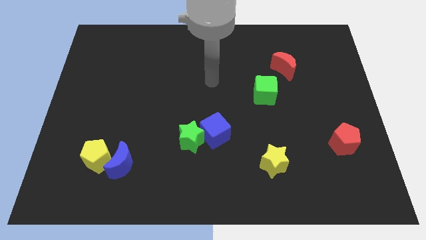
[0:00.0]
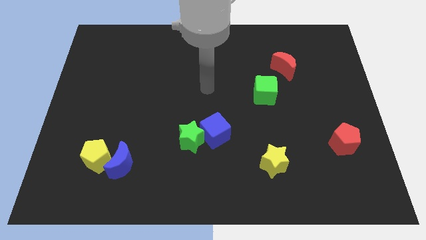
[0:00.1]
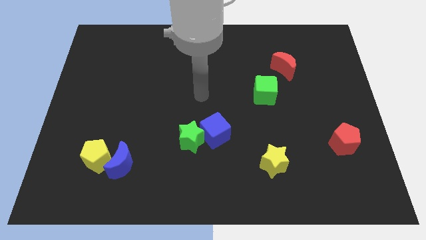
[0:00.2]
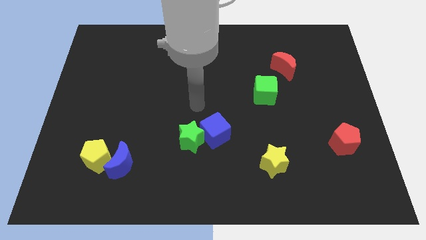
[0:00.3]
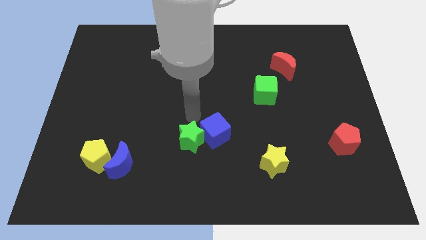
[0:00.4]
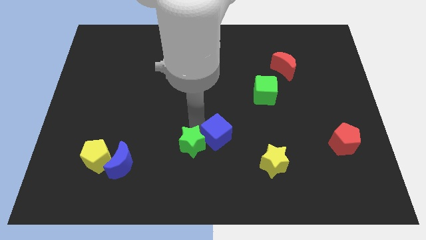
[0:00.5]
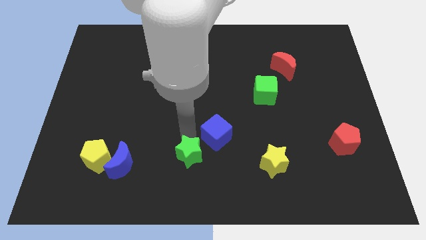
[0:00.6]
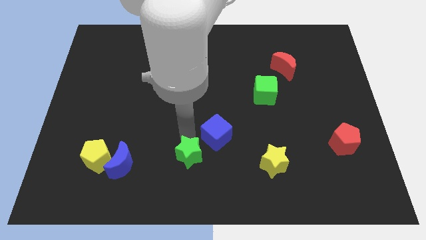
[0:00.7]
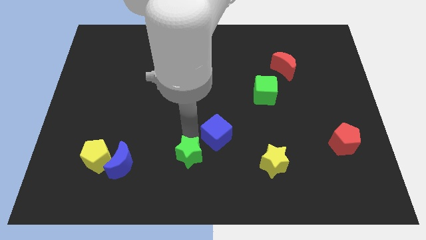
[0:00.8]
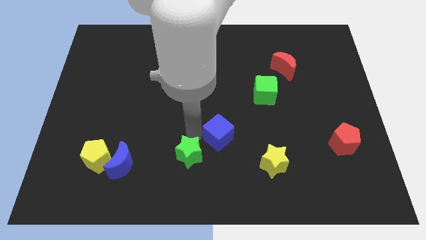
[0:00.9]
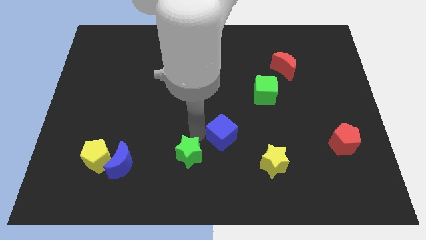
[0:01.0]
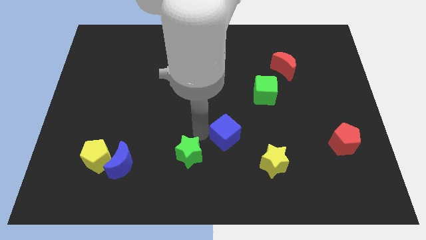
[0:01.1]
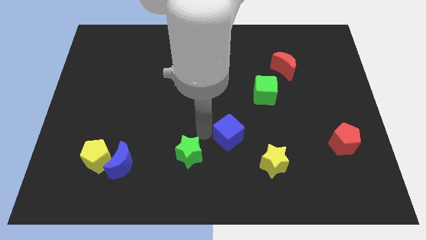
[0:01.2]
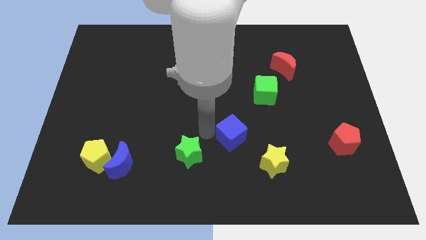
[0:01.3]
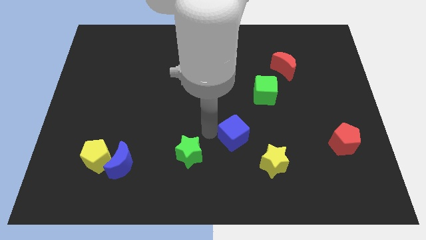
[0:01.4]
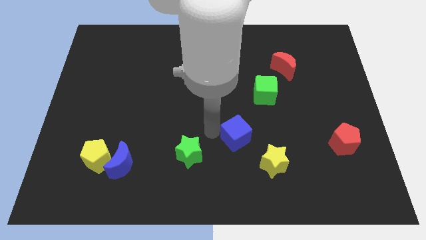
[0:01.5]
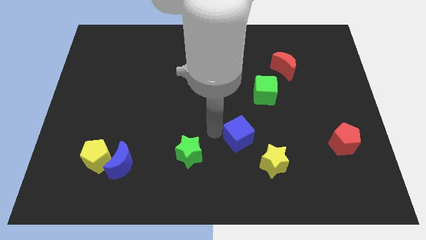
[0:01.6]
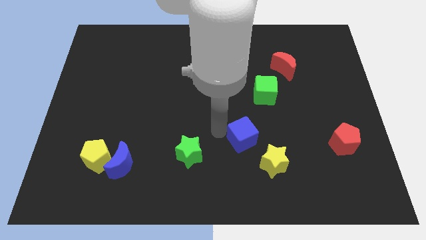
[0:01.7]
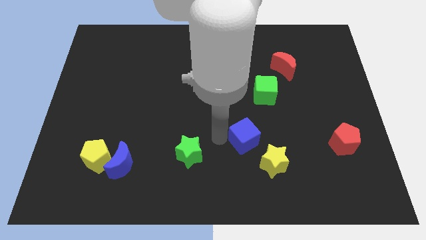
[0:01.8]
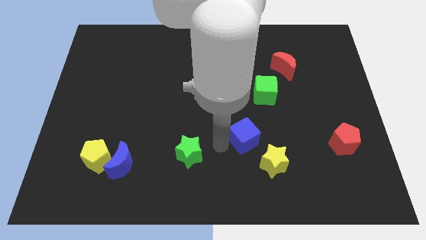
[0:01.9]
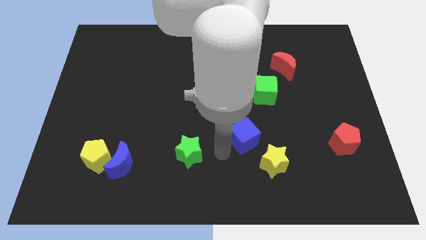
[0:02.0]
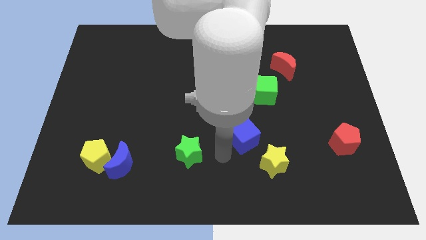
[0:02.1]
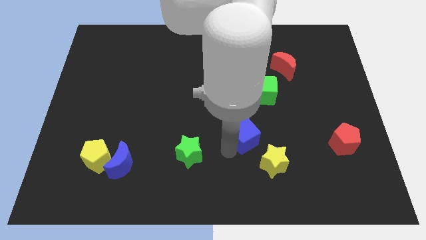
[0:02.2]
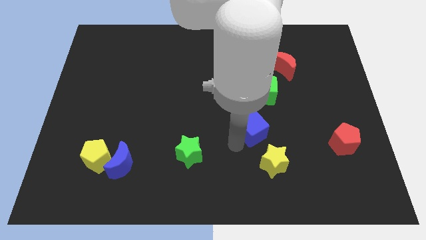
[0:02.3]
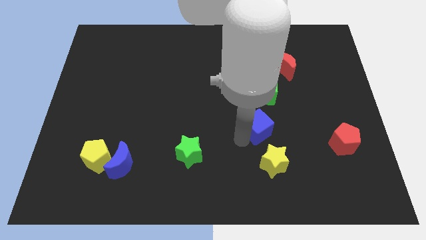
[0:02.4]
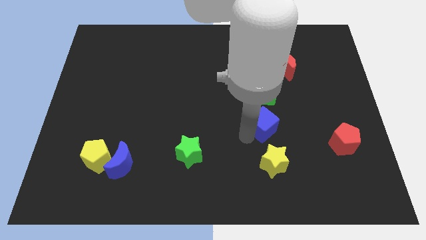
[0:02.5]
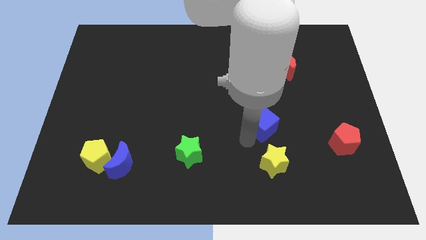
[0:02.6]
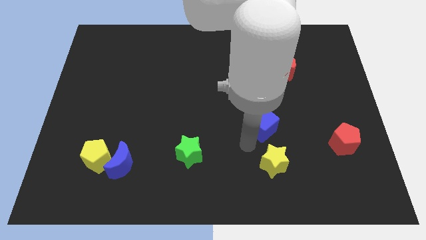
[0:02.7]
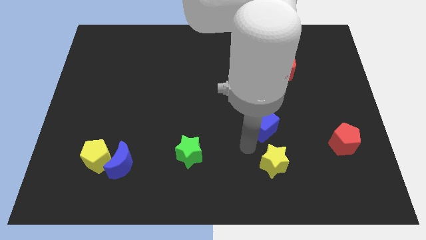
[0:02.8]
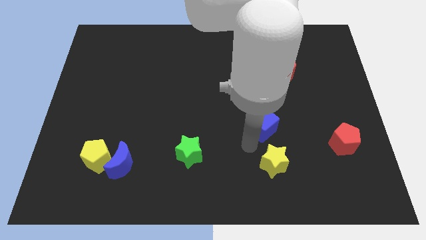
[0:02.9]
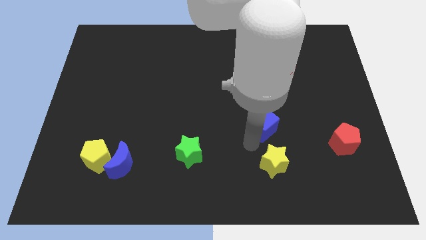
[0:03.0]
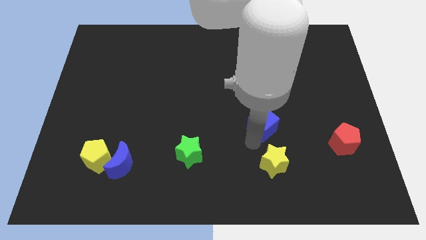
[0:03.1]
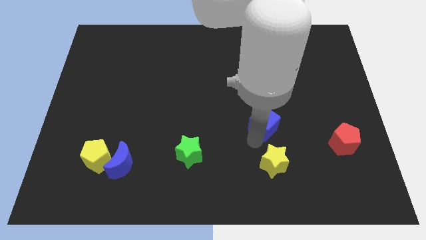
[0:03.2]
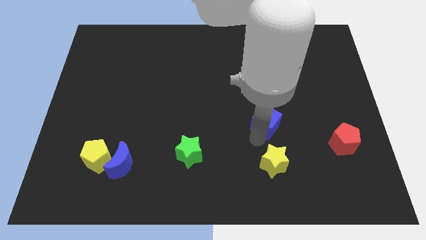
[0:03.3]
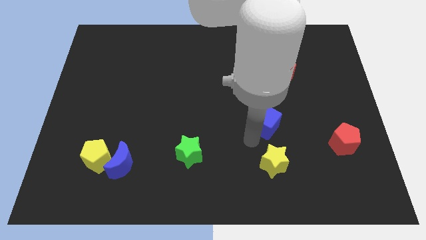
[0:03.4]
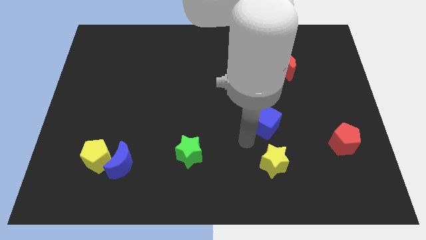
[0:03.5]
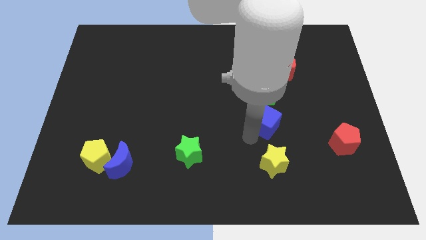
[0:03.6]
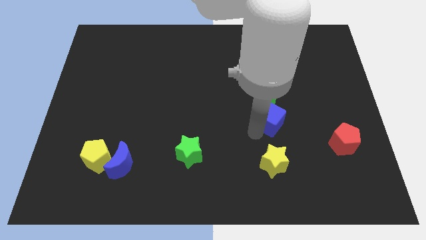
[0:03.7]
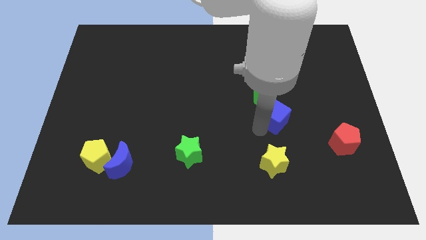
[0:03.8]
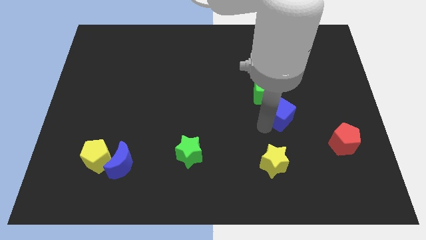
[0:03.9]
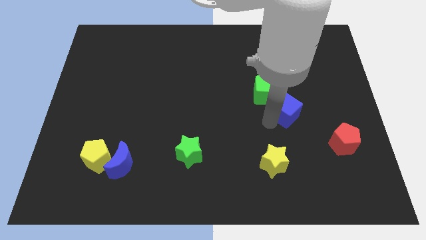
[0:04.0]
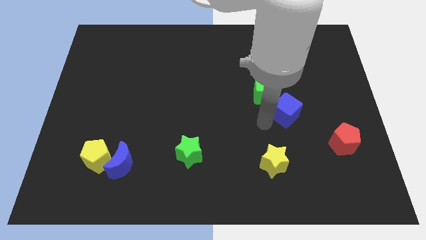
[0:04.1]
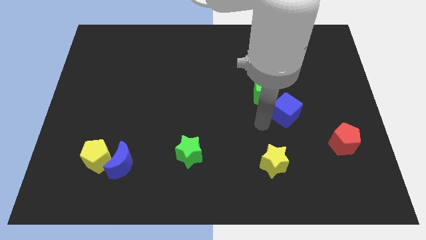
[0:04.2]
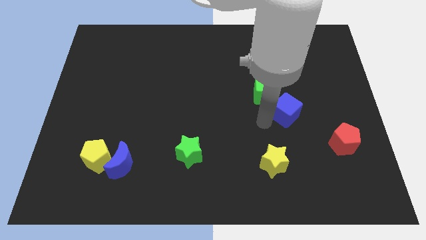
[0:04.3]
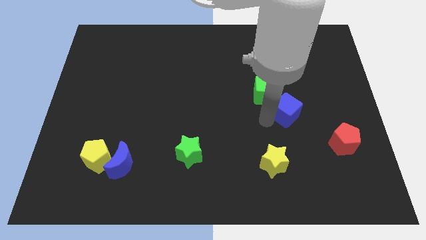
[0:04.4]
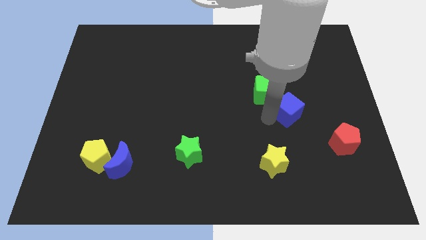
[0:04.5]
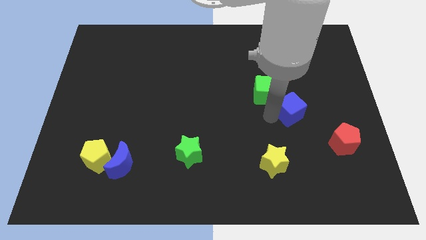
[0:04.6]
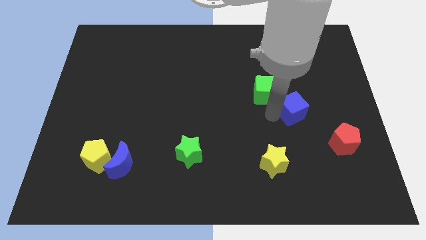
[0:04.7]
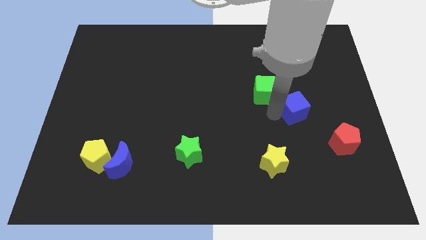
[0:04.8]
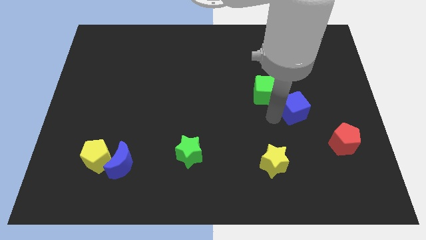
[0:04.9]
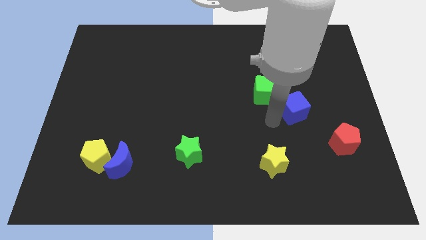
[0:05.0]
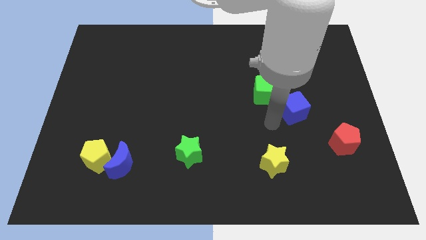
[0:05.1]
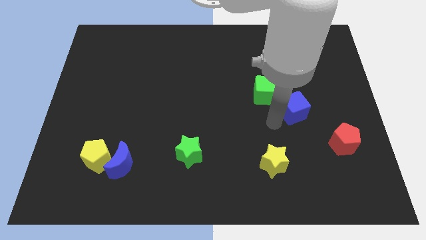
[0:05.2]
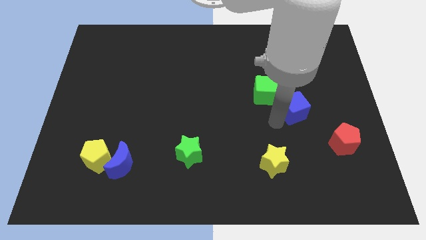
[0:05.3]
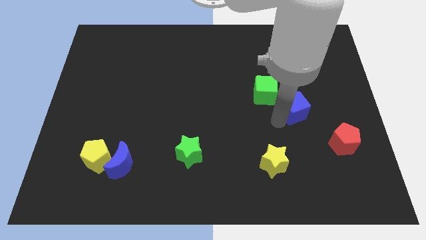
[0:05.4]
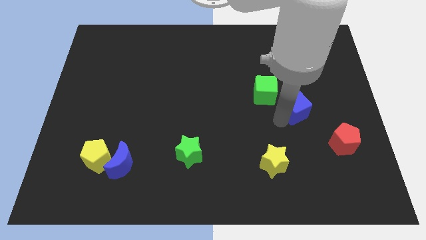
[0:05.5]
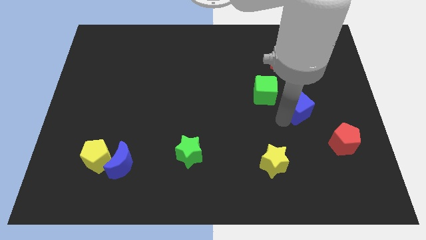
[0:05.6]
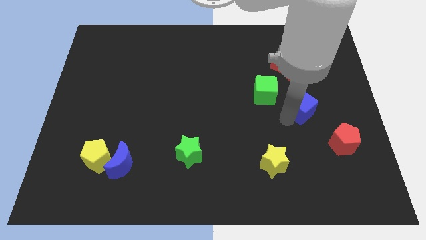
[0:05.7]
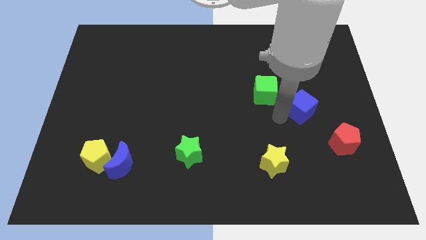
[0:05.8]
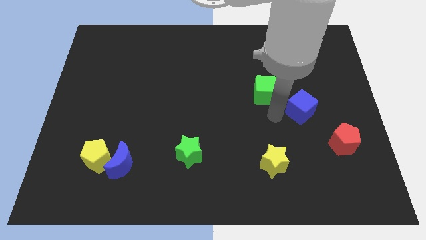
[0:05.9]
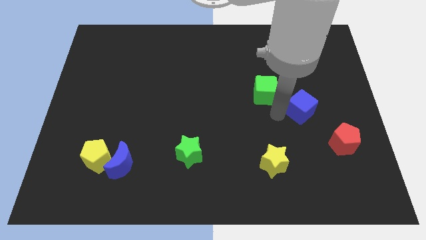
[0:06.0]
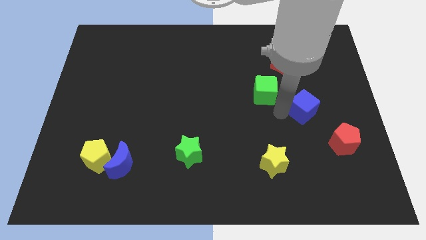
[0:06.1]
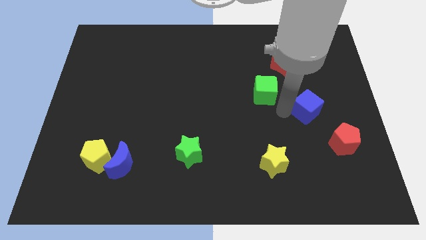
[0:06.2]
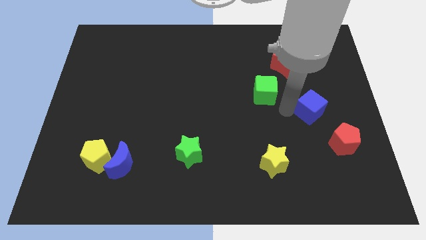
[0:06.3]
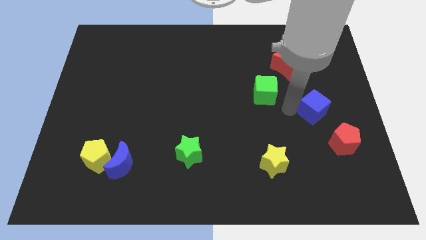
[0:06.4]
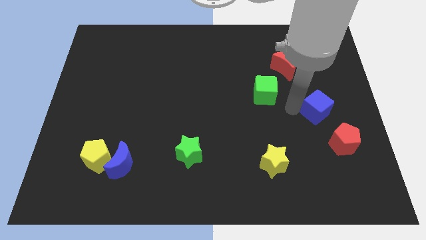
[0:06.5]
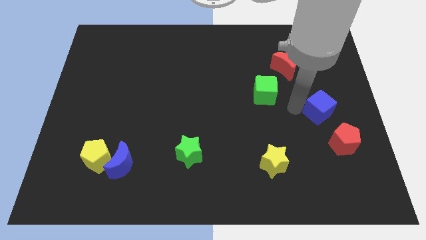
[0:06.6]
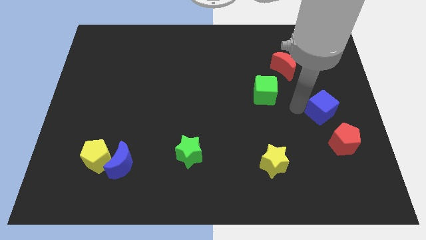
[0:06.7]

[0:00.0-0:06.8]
put the blue cube to the right side of the board
